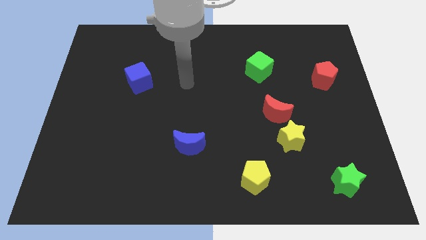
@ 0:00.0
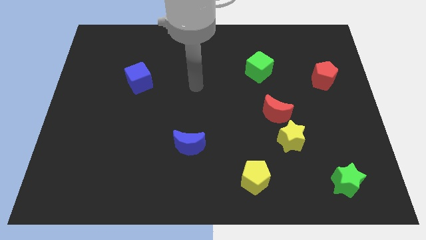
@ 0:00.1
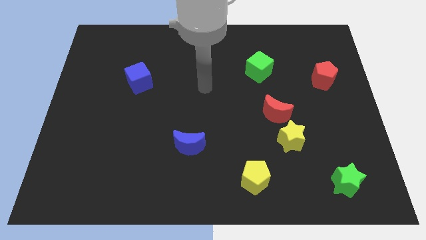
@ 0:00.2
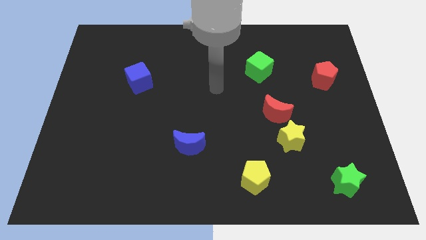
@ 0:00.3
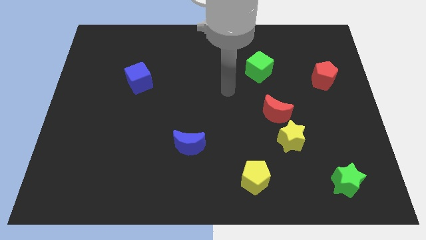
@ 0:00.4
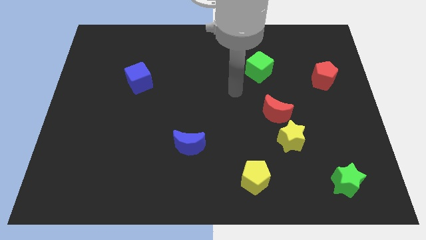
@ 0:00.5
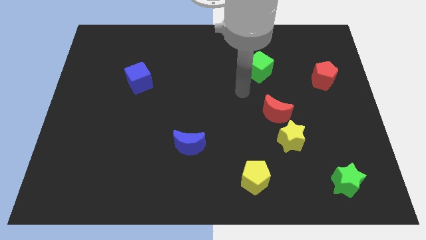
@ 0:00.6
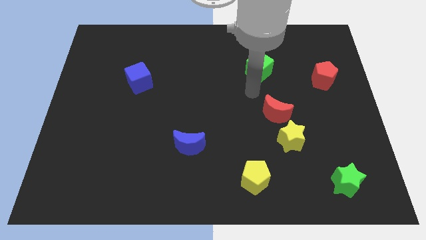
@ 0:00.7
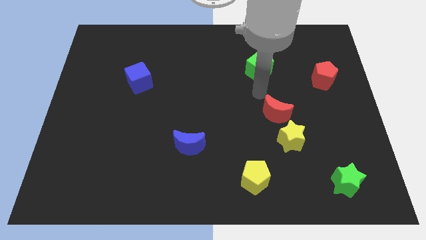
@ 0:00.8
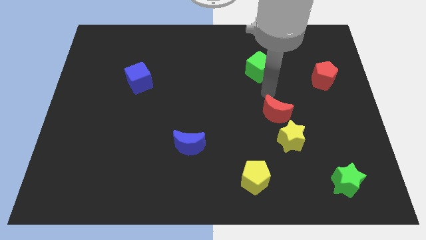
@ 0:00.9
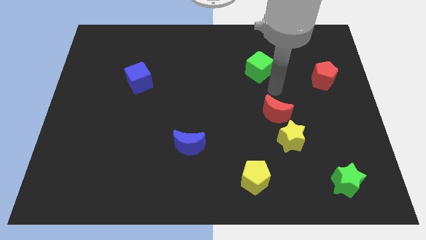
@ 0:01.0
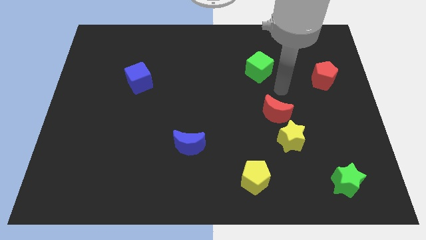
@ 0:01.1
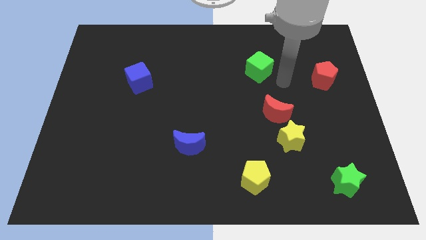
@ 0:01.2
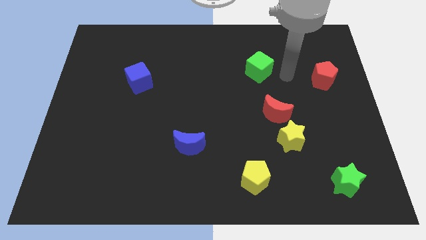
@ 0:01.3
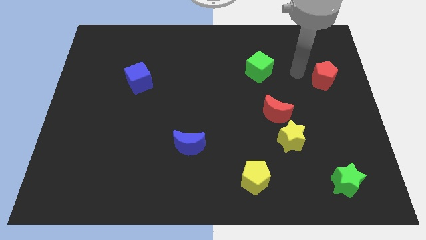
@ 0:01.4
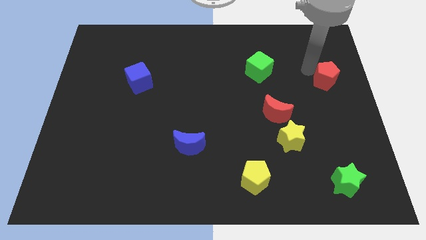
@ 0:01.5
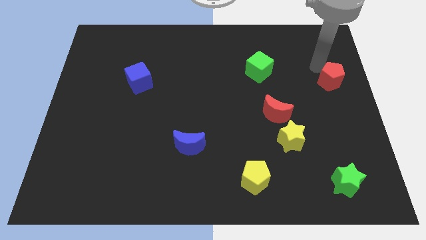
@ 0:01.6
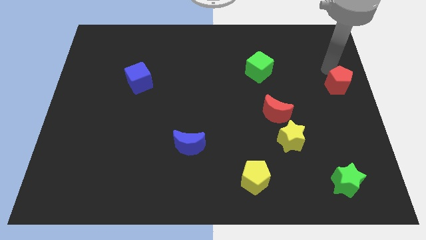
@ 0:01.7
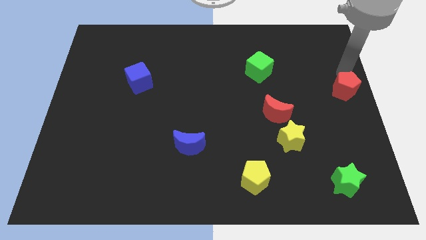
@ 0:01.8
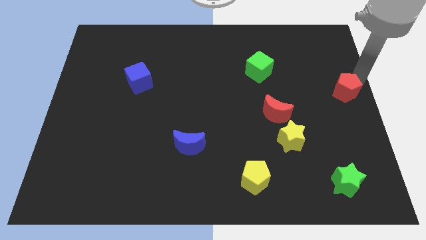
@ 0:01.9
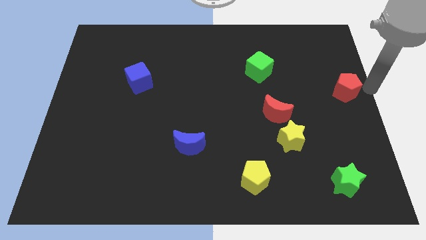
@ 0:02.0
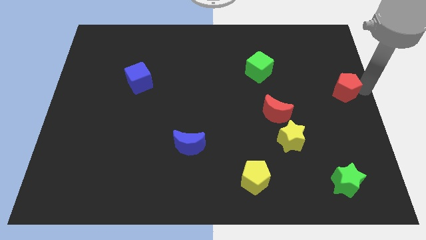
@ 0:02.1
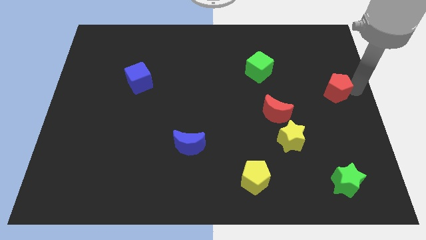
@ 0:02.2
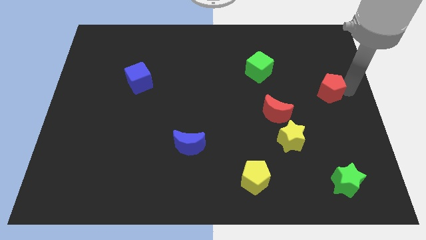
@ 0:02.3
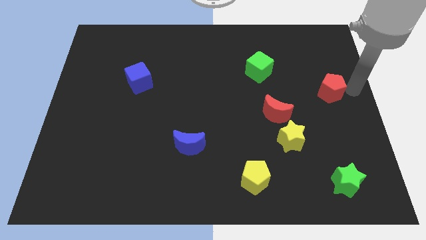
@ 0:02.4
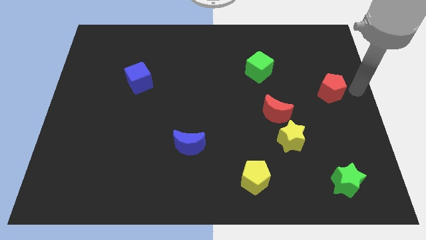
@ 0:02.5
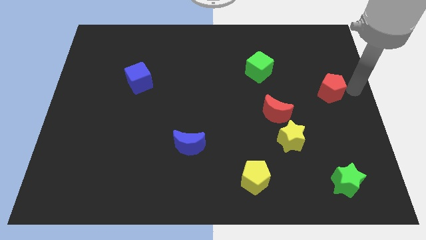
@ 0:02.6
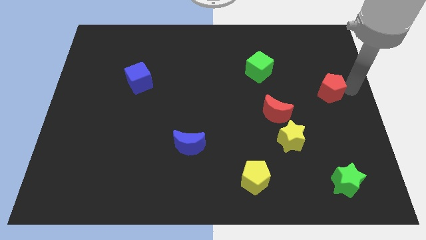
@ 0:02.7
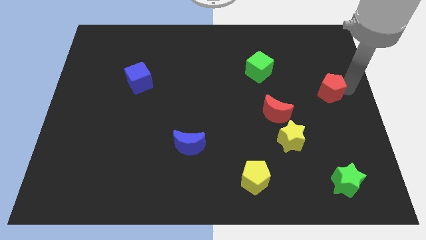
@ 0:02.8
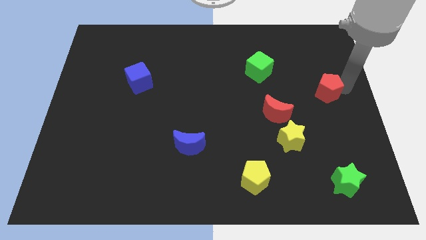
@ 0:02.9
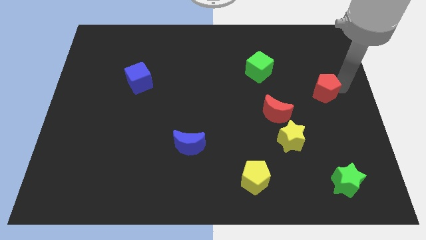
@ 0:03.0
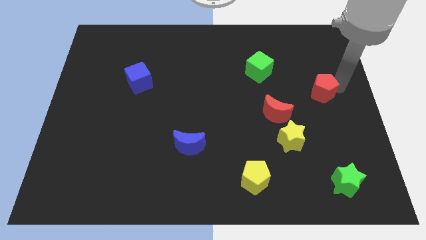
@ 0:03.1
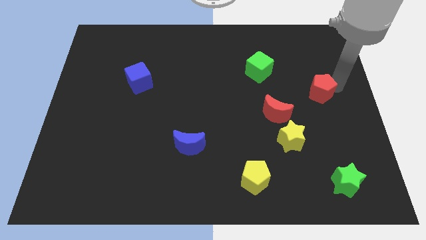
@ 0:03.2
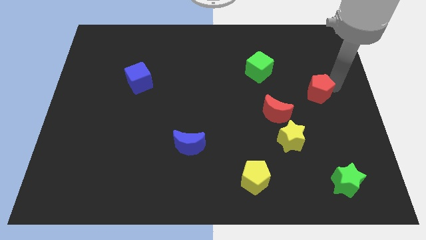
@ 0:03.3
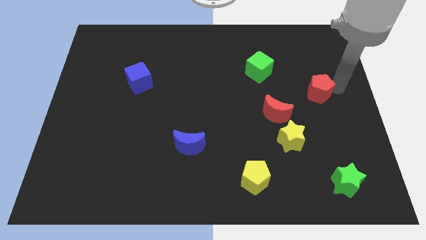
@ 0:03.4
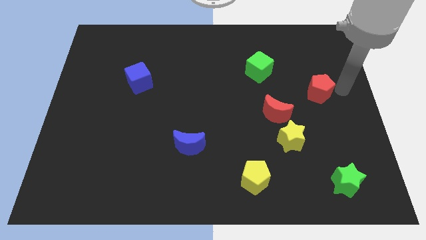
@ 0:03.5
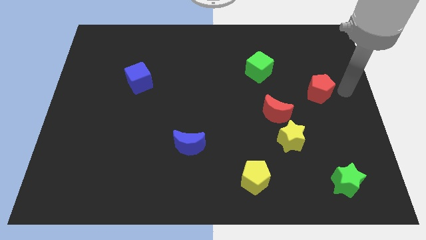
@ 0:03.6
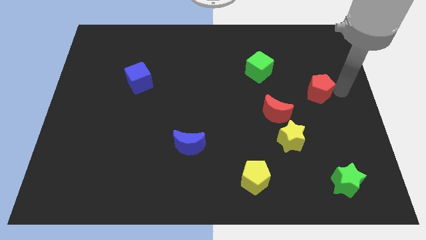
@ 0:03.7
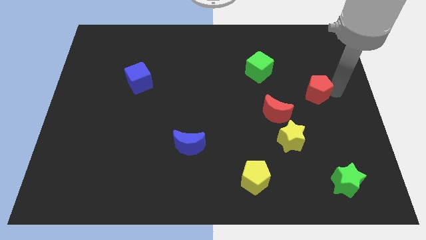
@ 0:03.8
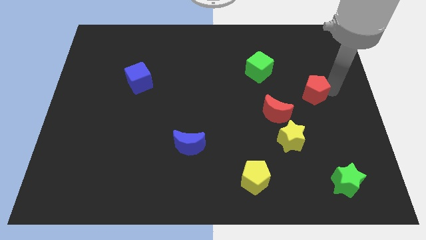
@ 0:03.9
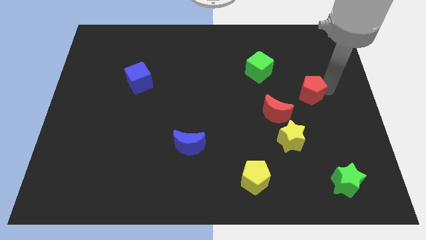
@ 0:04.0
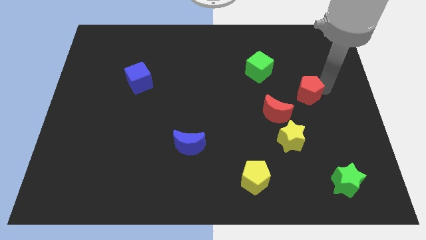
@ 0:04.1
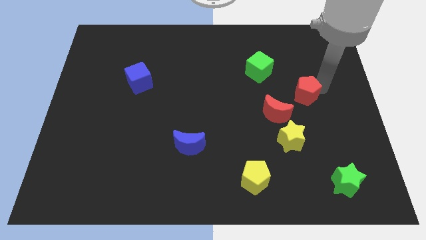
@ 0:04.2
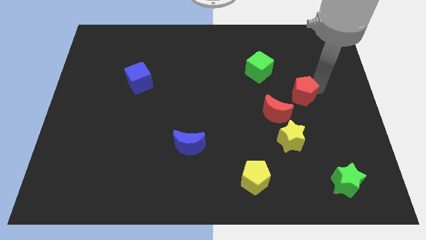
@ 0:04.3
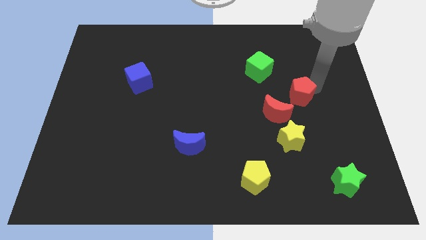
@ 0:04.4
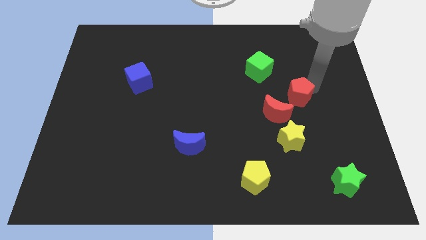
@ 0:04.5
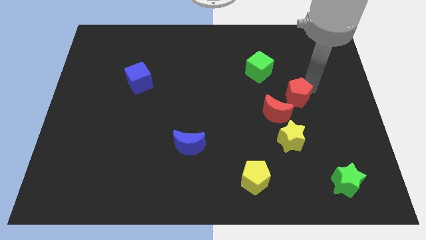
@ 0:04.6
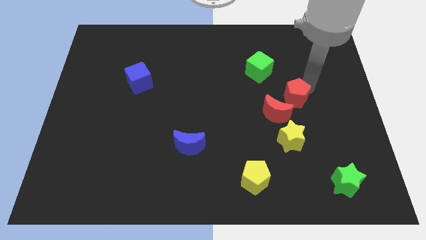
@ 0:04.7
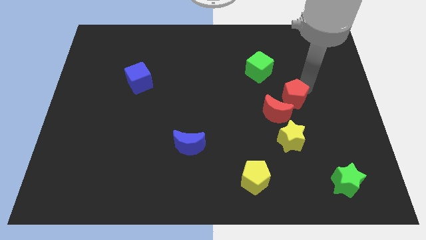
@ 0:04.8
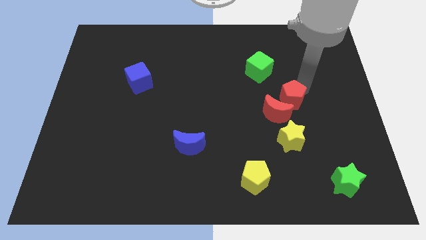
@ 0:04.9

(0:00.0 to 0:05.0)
put the red pentagon towards the red moon

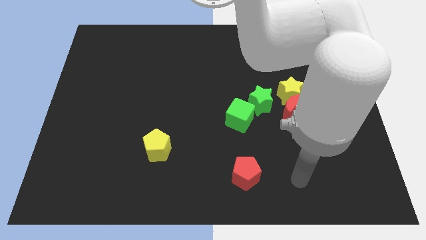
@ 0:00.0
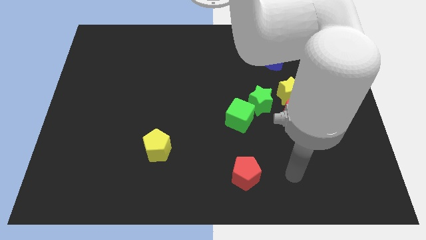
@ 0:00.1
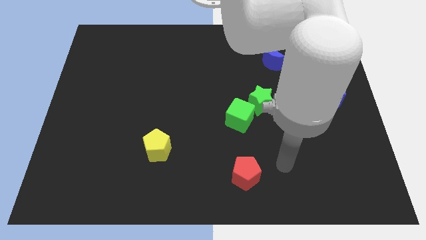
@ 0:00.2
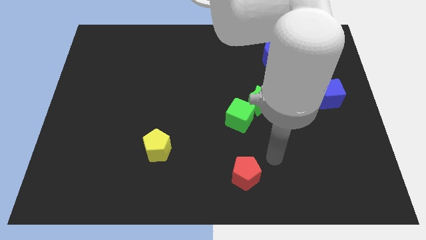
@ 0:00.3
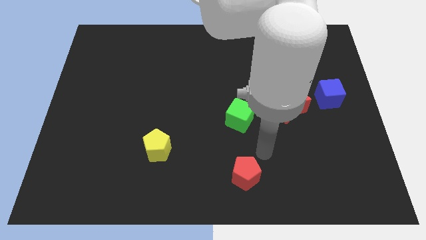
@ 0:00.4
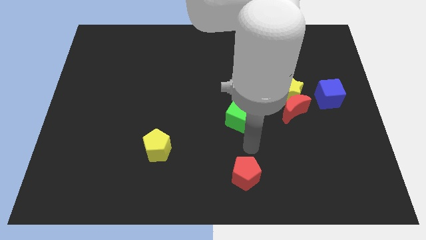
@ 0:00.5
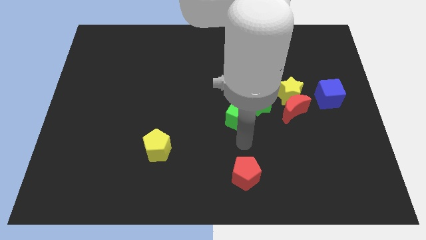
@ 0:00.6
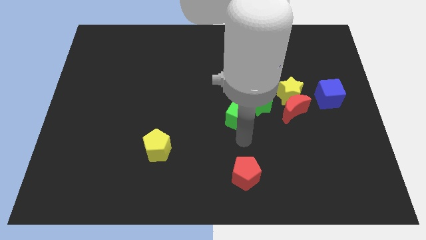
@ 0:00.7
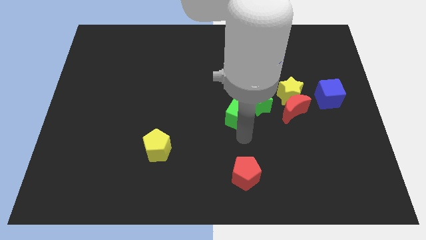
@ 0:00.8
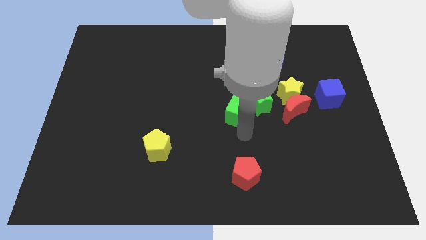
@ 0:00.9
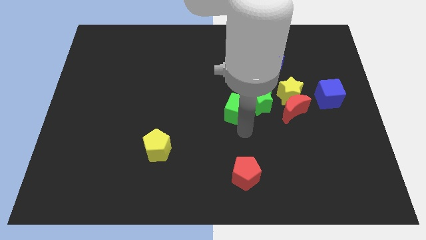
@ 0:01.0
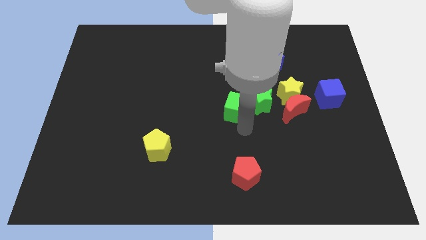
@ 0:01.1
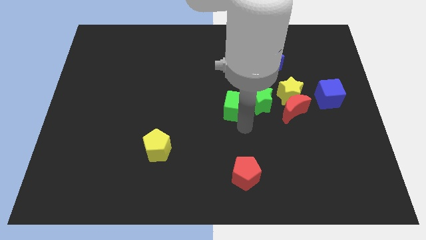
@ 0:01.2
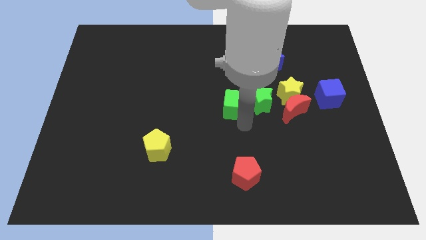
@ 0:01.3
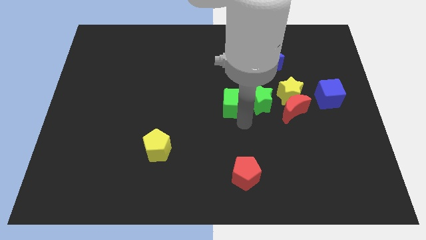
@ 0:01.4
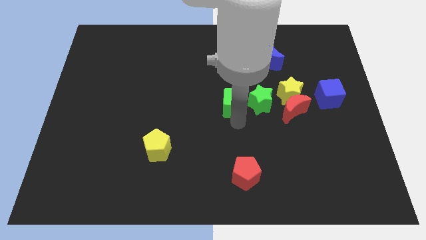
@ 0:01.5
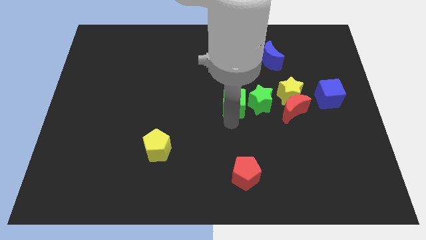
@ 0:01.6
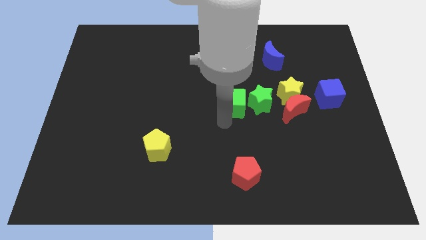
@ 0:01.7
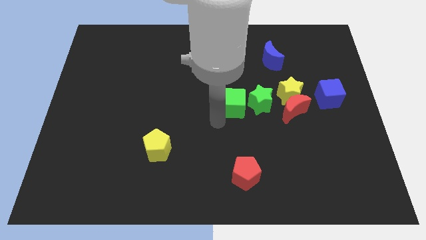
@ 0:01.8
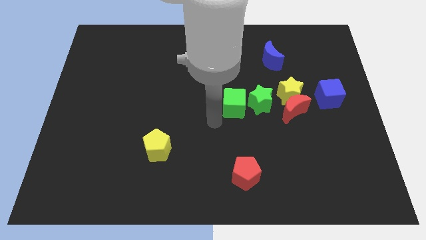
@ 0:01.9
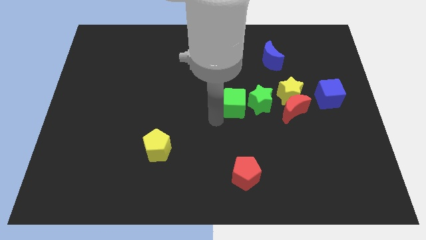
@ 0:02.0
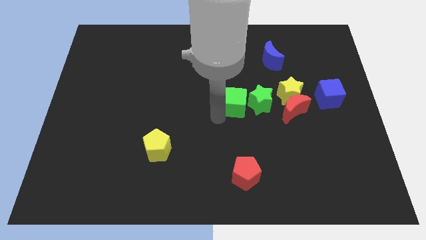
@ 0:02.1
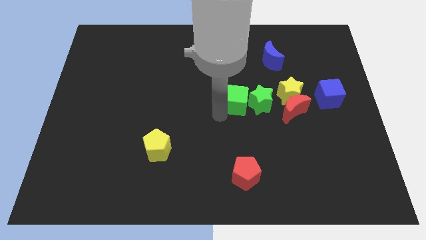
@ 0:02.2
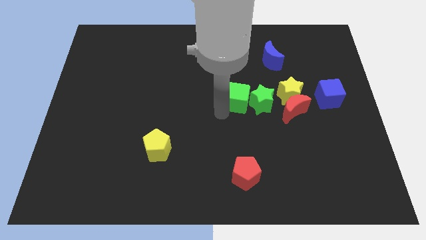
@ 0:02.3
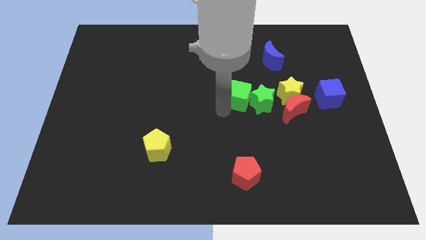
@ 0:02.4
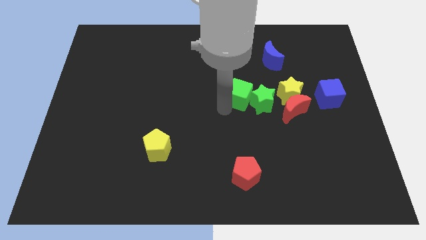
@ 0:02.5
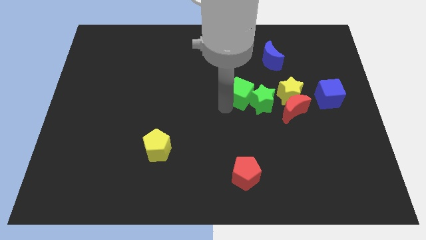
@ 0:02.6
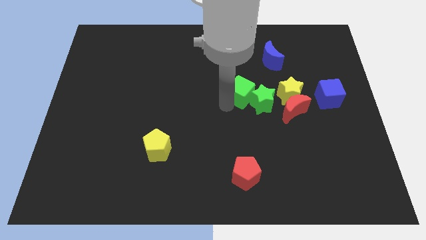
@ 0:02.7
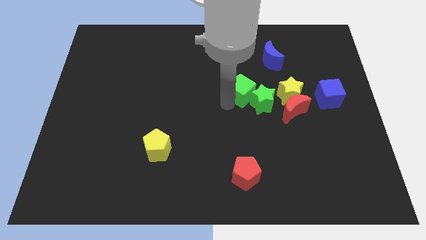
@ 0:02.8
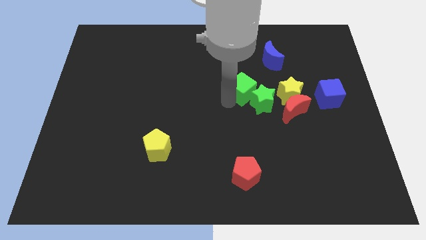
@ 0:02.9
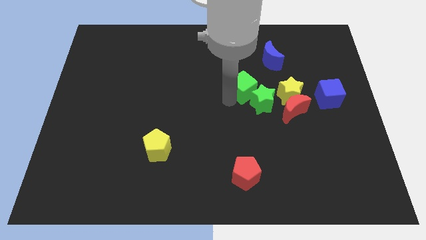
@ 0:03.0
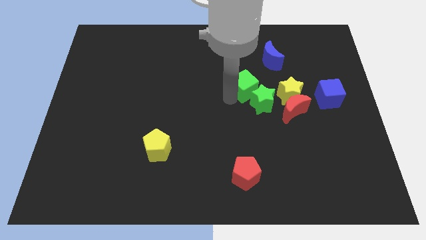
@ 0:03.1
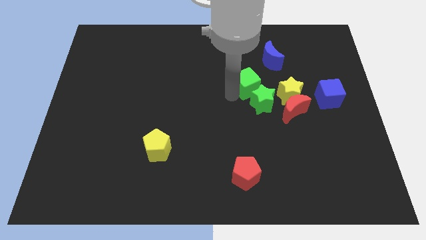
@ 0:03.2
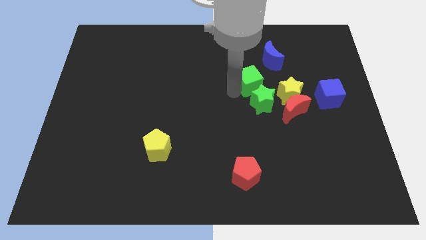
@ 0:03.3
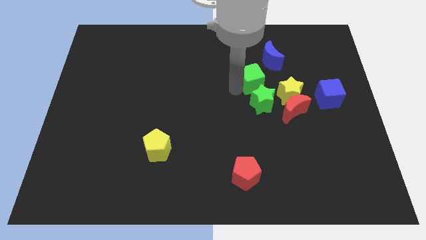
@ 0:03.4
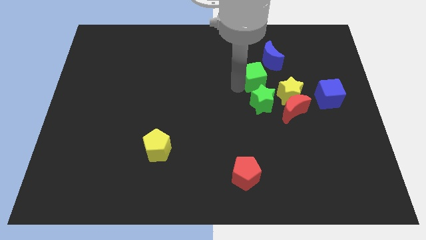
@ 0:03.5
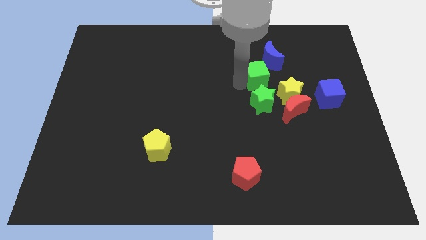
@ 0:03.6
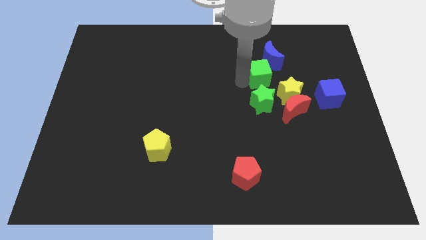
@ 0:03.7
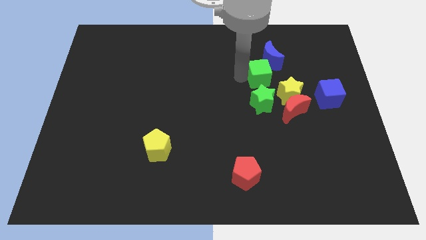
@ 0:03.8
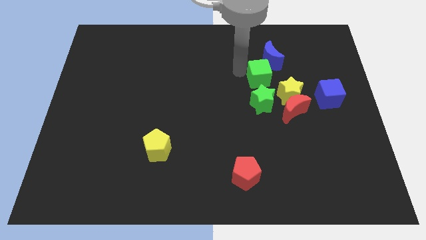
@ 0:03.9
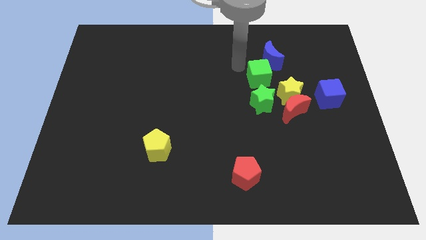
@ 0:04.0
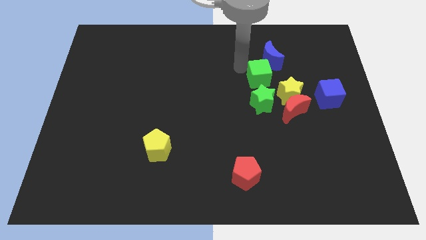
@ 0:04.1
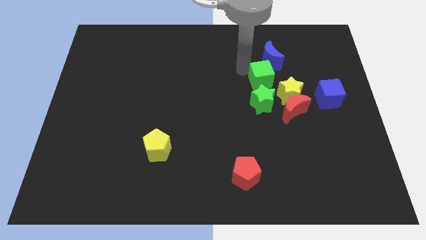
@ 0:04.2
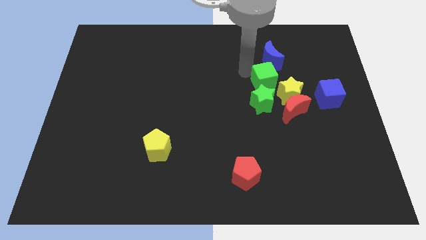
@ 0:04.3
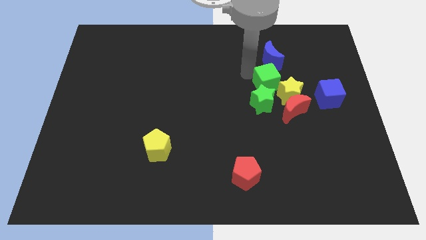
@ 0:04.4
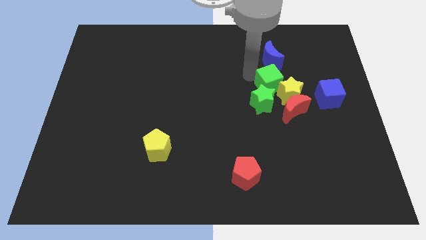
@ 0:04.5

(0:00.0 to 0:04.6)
slide the green cube next to the yellow star
